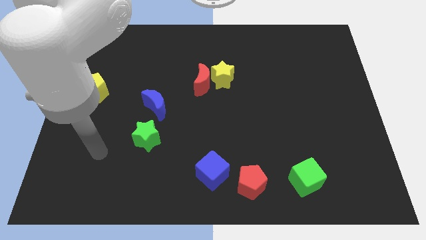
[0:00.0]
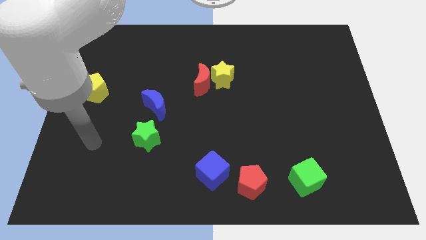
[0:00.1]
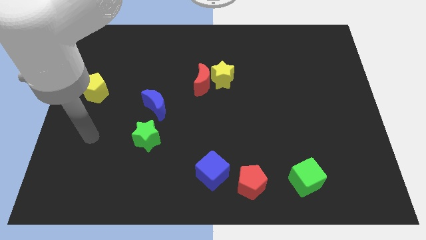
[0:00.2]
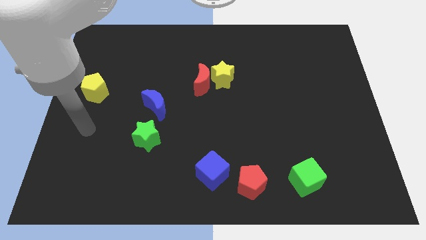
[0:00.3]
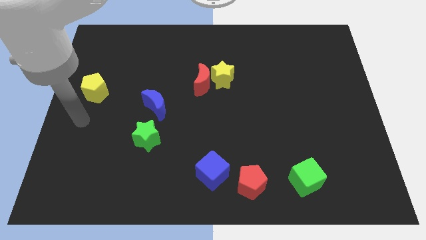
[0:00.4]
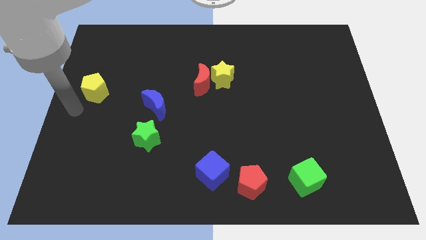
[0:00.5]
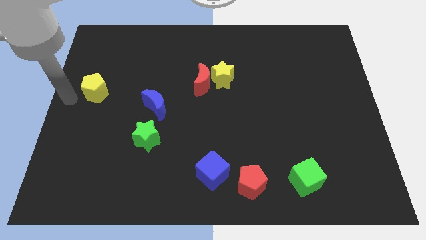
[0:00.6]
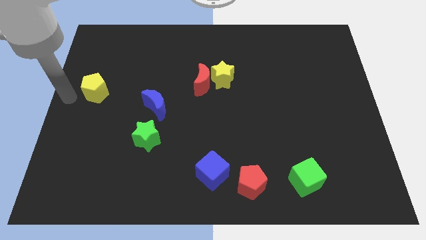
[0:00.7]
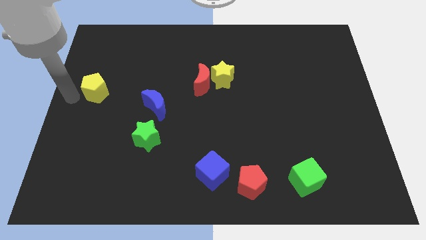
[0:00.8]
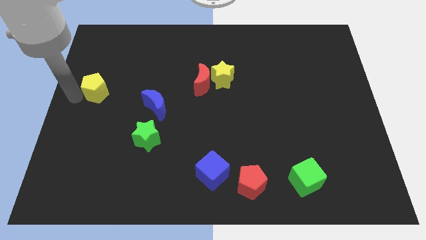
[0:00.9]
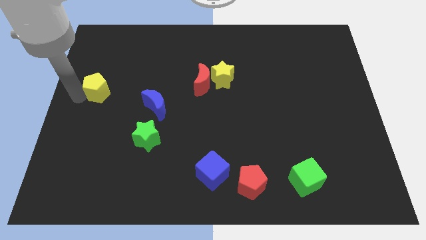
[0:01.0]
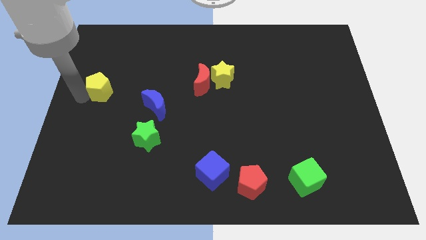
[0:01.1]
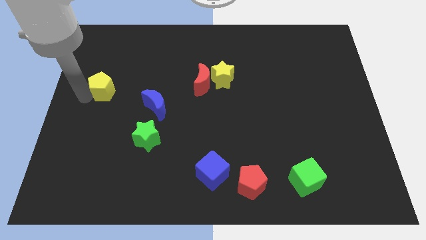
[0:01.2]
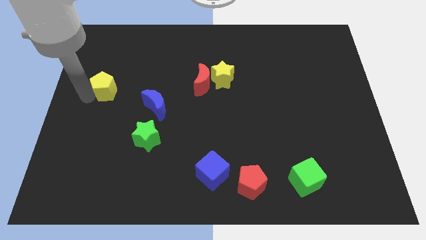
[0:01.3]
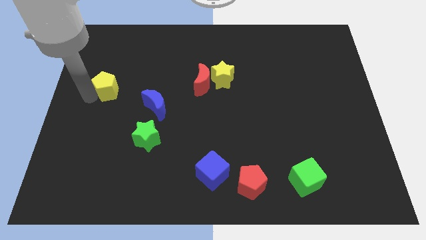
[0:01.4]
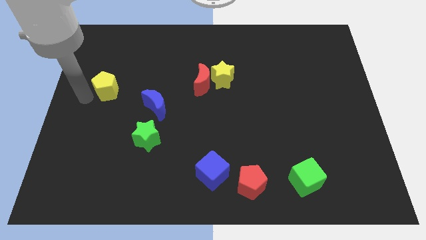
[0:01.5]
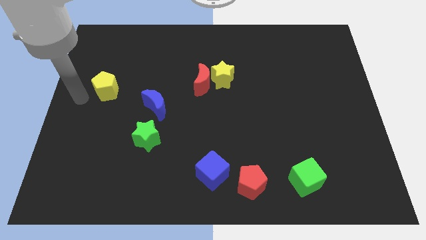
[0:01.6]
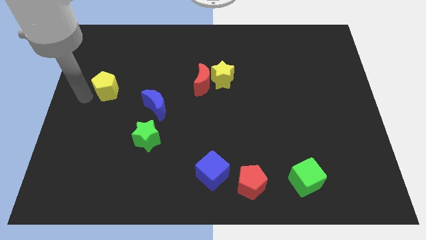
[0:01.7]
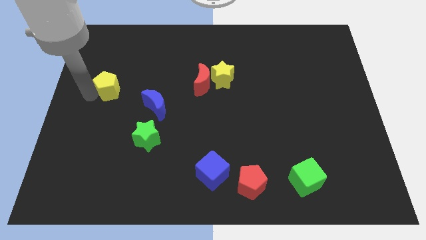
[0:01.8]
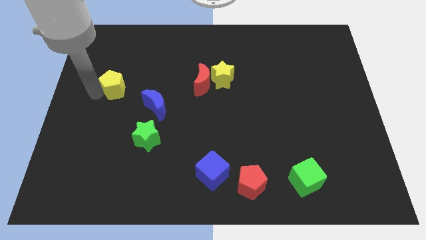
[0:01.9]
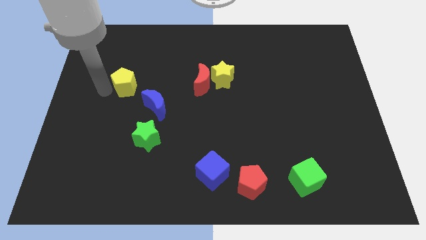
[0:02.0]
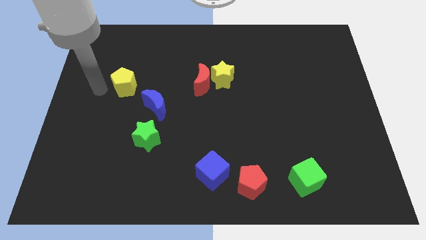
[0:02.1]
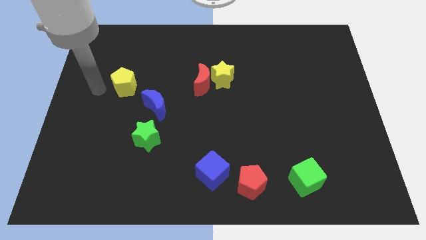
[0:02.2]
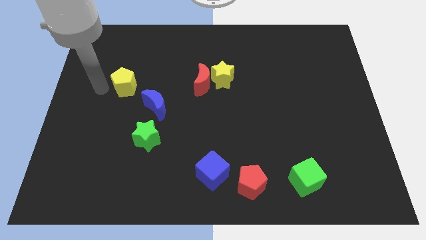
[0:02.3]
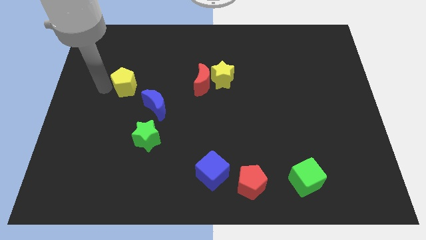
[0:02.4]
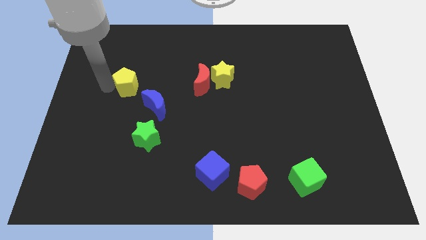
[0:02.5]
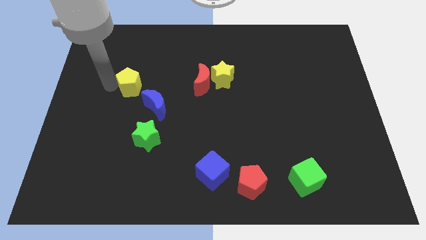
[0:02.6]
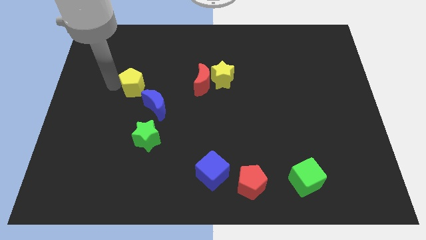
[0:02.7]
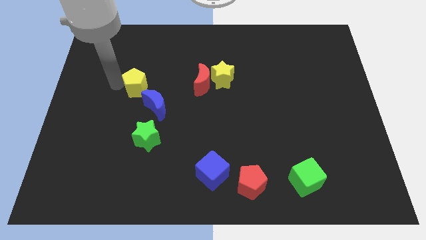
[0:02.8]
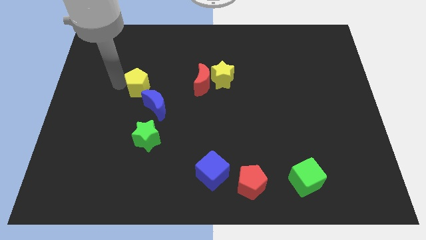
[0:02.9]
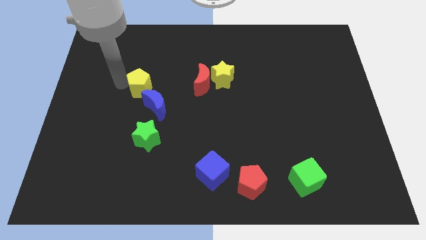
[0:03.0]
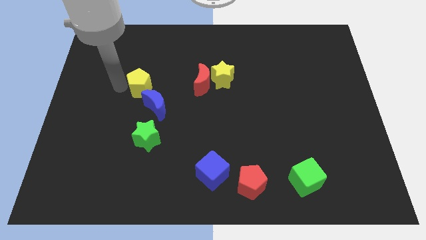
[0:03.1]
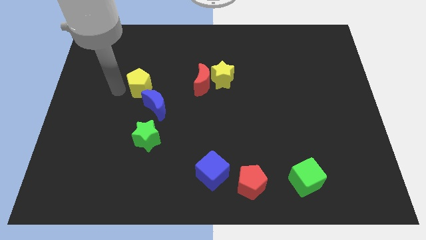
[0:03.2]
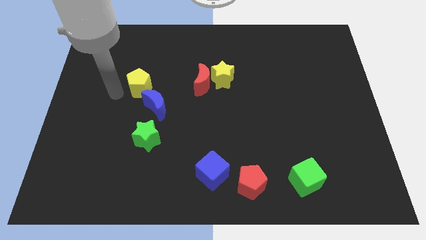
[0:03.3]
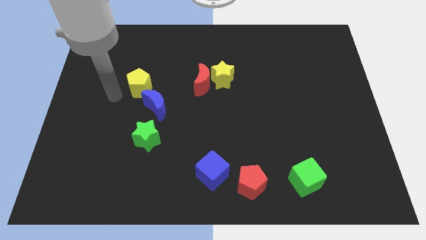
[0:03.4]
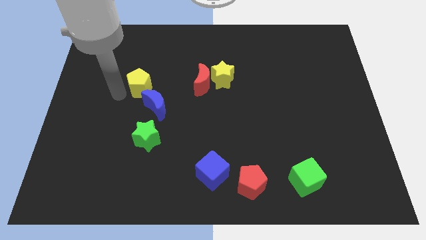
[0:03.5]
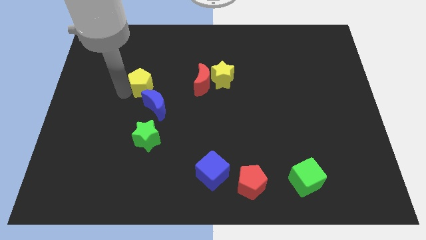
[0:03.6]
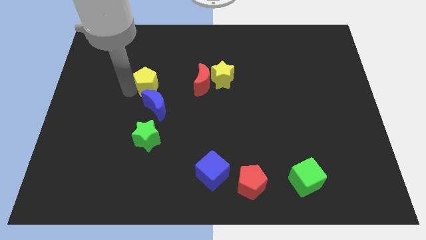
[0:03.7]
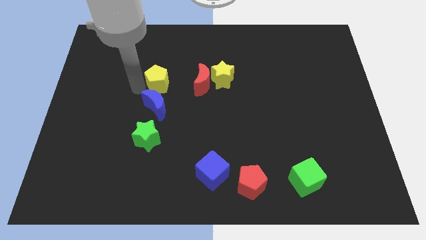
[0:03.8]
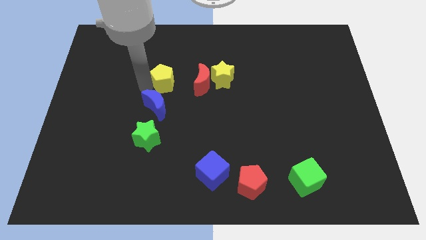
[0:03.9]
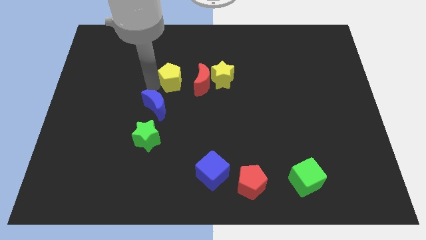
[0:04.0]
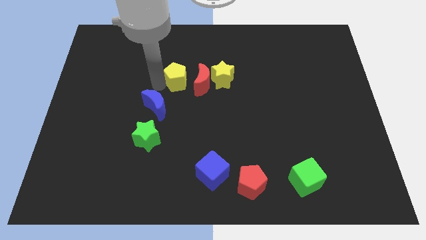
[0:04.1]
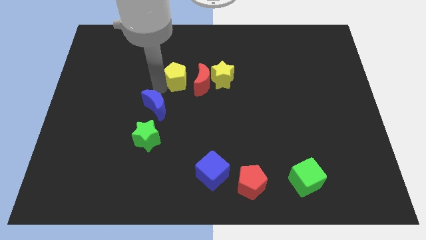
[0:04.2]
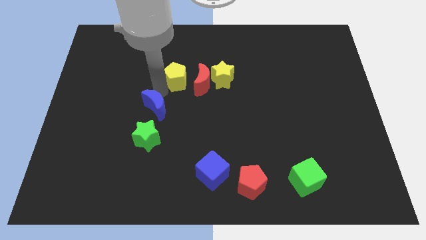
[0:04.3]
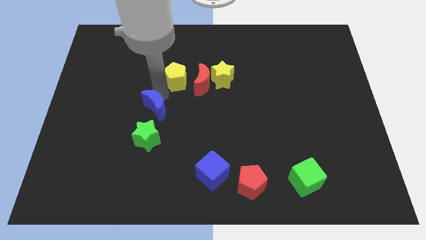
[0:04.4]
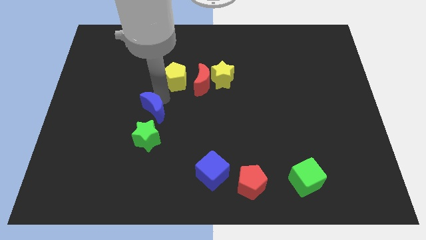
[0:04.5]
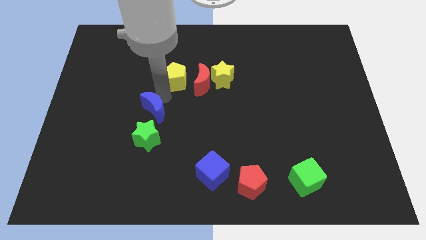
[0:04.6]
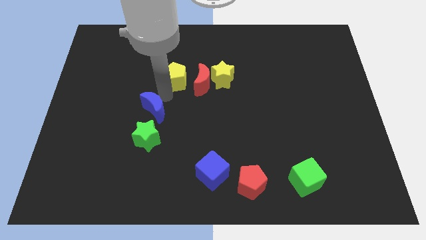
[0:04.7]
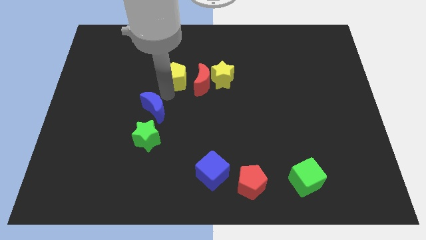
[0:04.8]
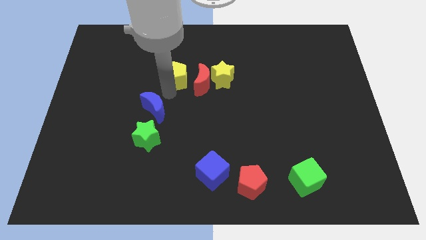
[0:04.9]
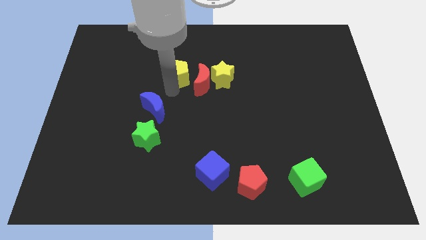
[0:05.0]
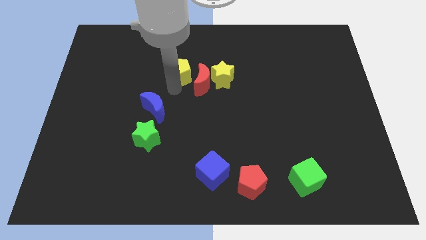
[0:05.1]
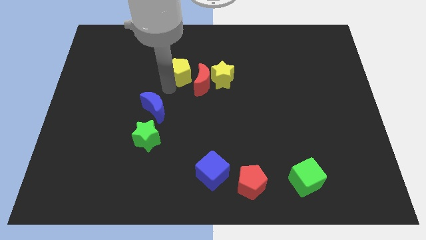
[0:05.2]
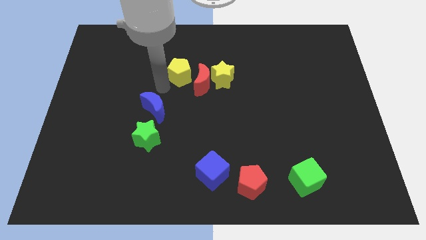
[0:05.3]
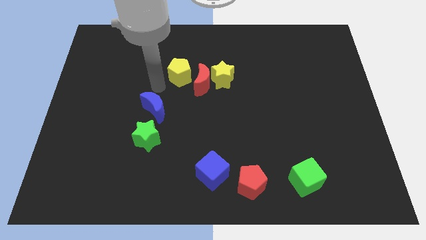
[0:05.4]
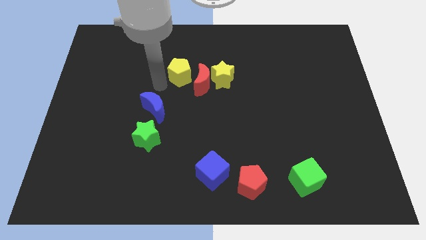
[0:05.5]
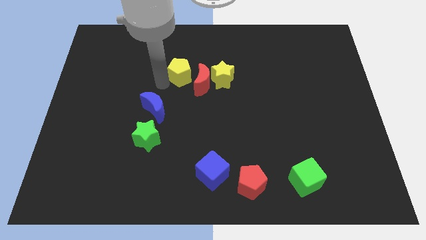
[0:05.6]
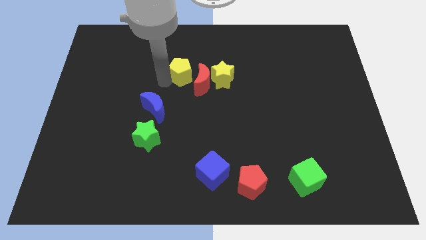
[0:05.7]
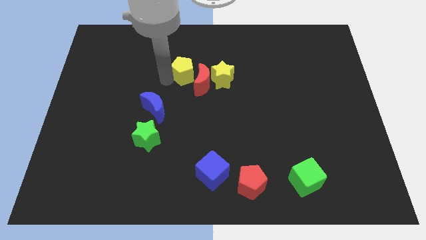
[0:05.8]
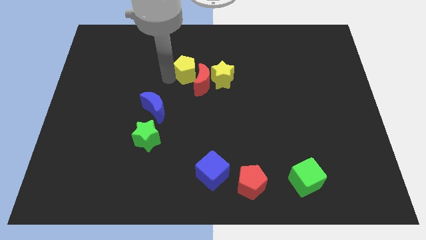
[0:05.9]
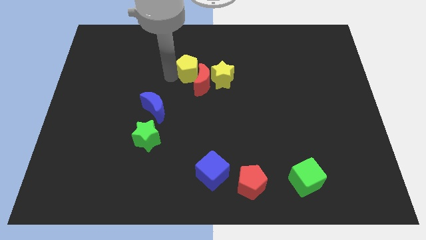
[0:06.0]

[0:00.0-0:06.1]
push the yellow pentagon to the top left side of the yellow star
